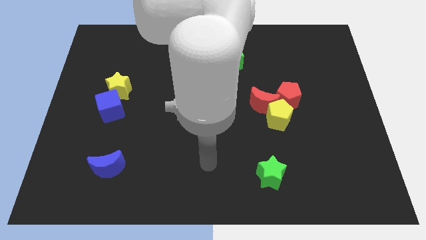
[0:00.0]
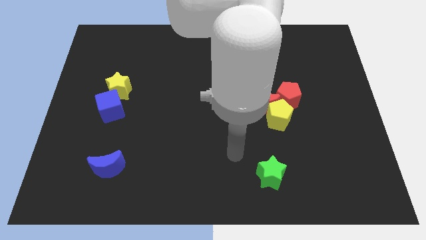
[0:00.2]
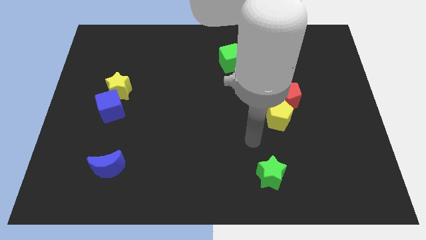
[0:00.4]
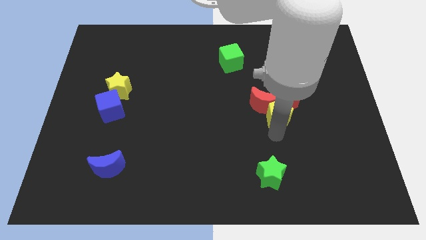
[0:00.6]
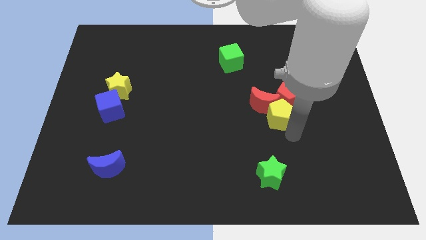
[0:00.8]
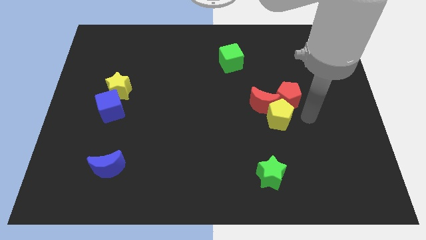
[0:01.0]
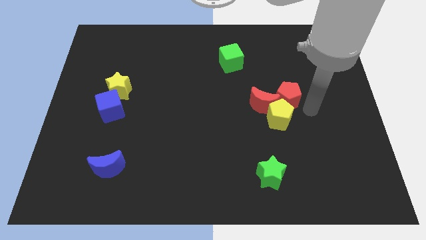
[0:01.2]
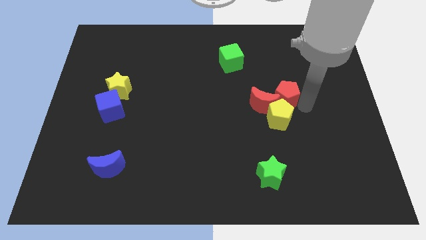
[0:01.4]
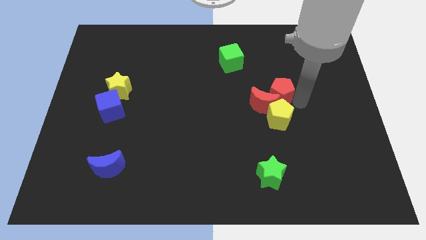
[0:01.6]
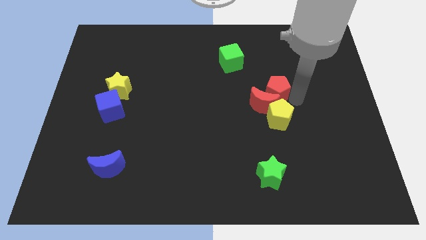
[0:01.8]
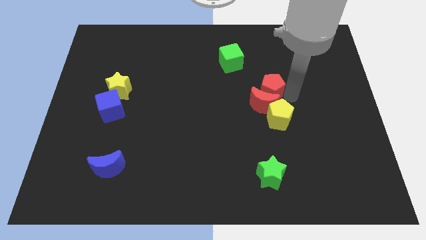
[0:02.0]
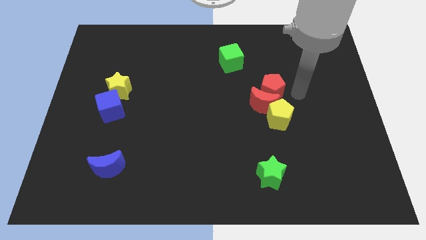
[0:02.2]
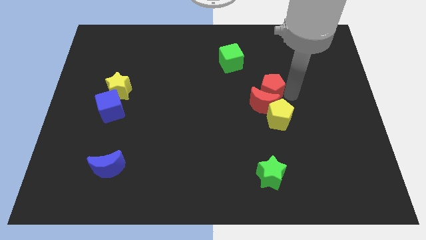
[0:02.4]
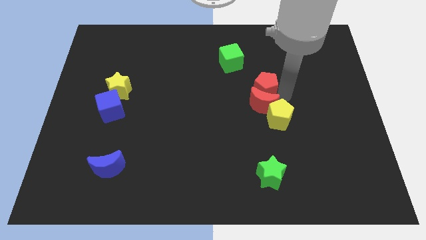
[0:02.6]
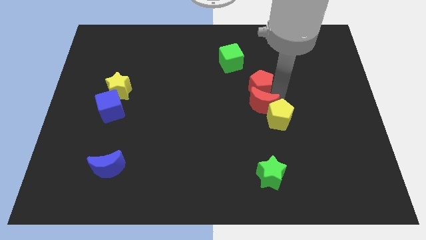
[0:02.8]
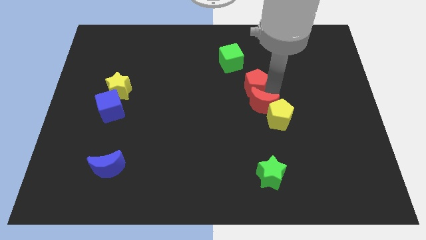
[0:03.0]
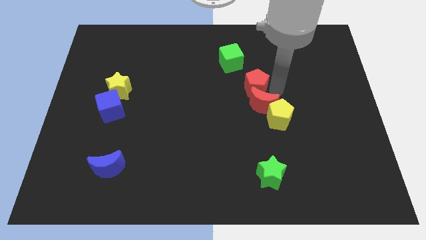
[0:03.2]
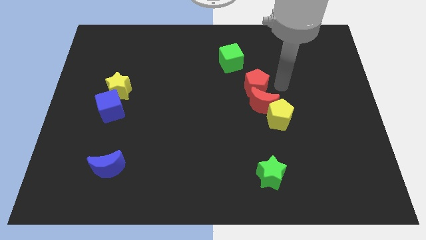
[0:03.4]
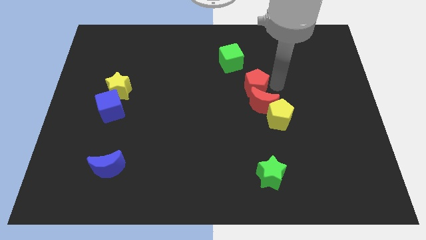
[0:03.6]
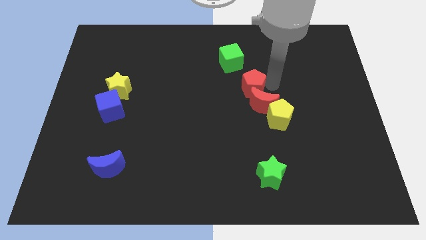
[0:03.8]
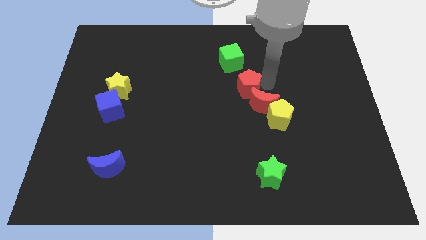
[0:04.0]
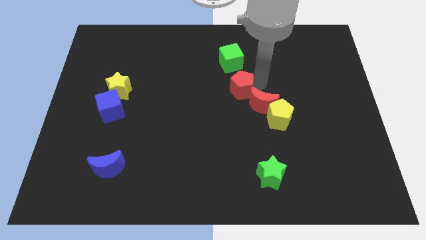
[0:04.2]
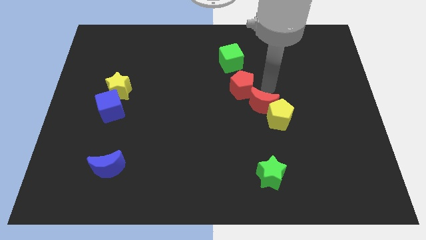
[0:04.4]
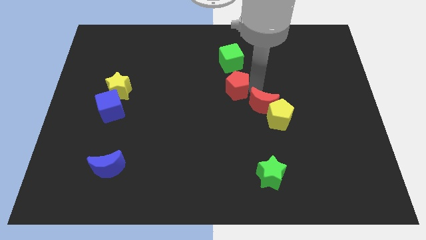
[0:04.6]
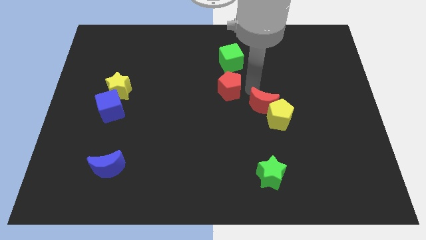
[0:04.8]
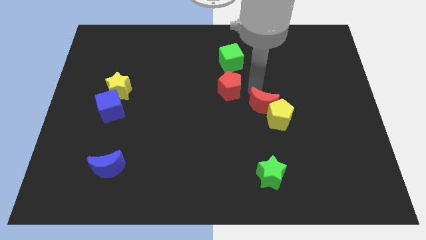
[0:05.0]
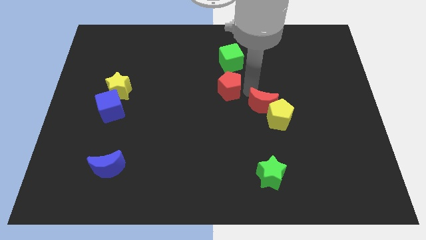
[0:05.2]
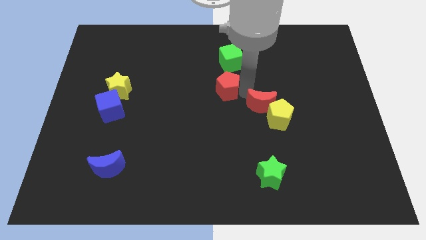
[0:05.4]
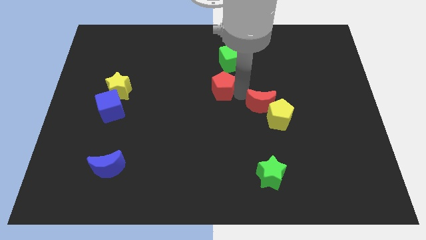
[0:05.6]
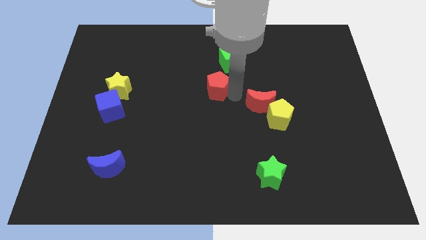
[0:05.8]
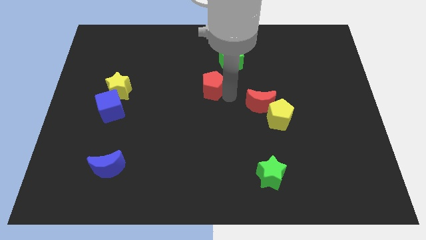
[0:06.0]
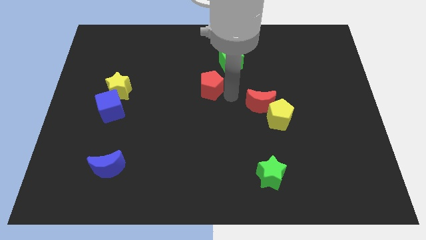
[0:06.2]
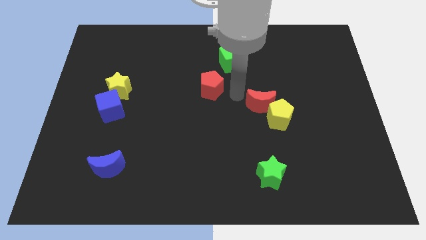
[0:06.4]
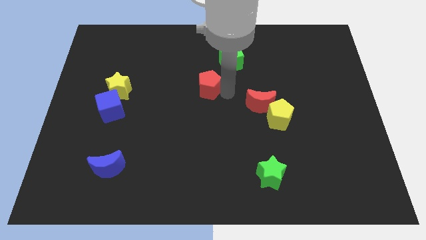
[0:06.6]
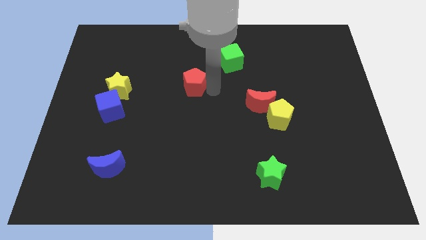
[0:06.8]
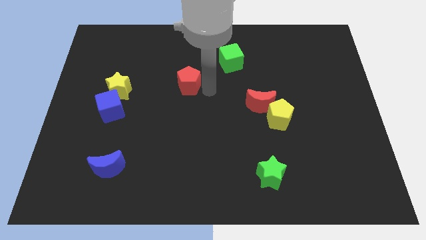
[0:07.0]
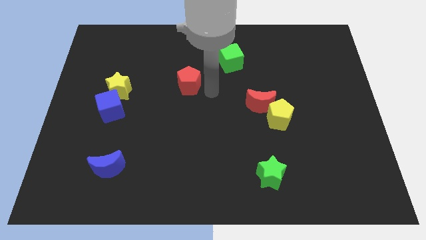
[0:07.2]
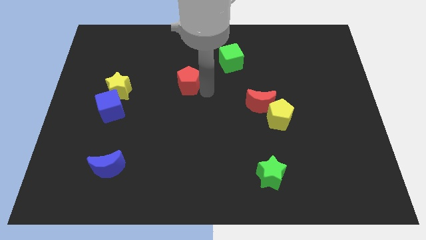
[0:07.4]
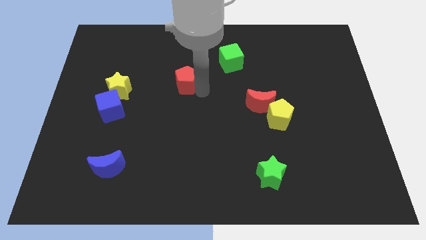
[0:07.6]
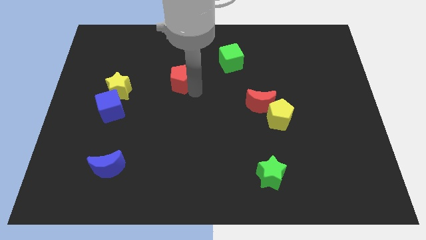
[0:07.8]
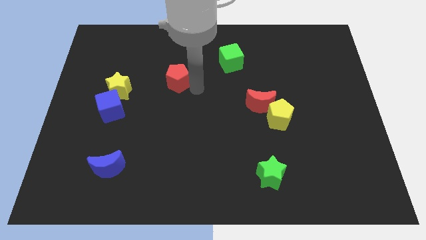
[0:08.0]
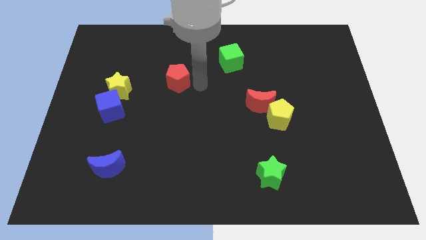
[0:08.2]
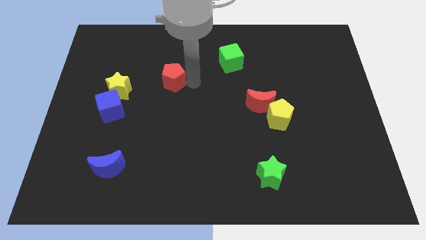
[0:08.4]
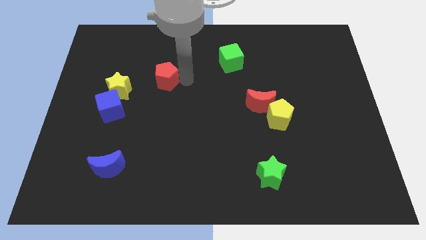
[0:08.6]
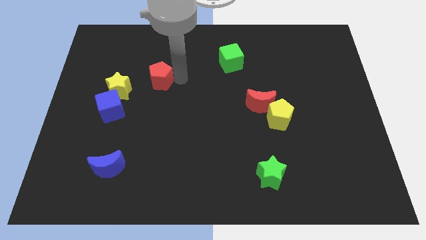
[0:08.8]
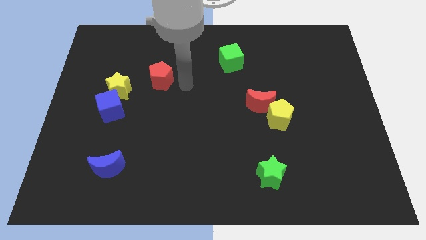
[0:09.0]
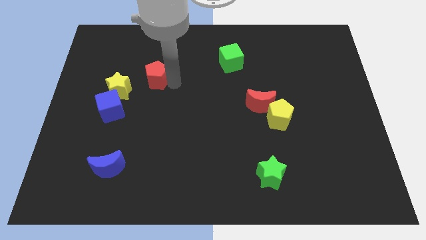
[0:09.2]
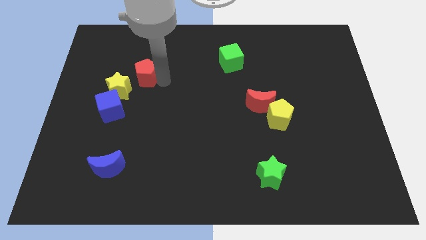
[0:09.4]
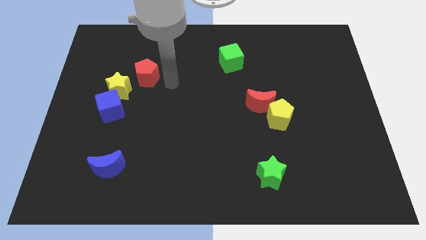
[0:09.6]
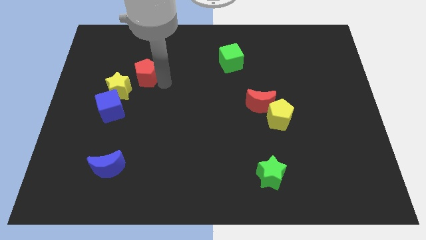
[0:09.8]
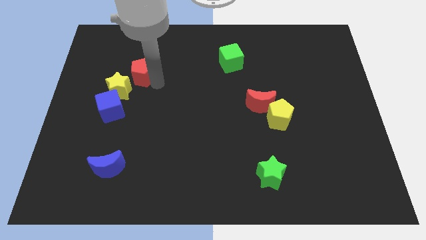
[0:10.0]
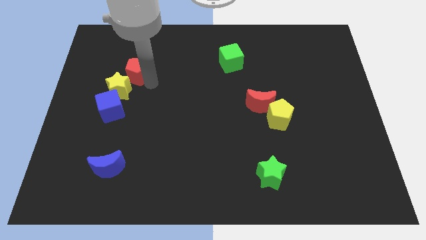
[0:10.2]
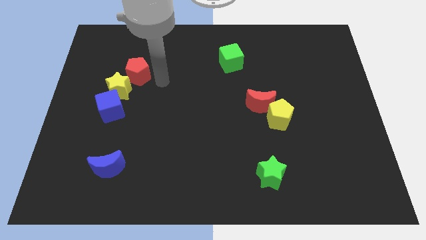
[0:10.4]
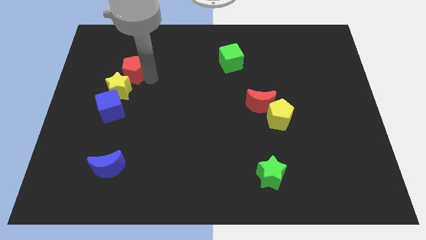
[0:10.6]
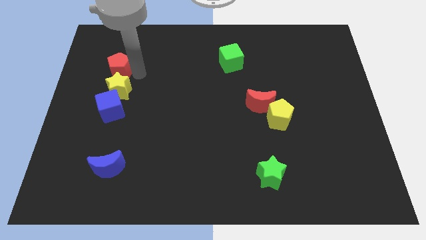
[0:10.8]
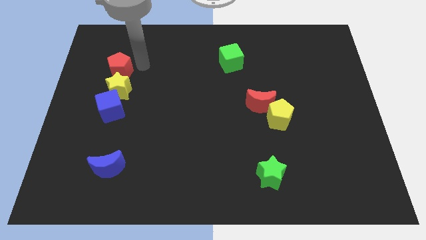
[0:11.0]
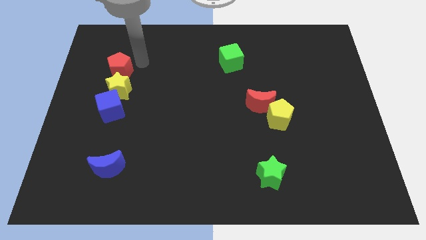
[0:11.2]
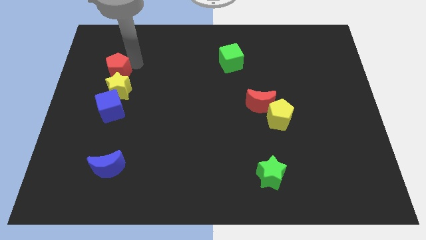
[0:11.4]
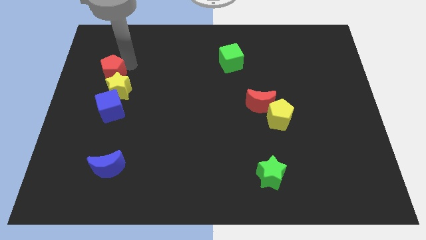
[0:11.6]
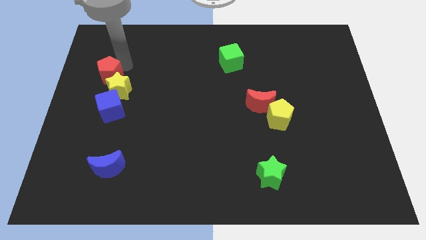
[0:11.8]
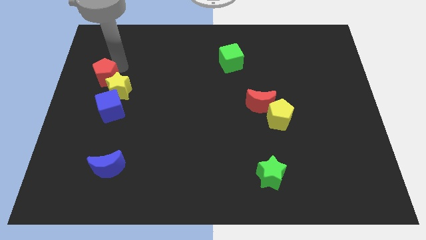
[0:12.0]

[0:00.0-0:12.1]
move the red pentagon to the center left
